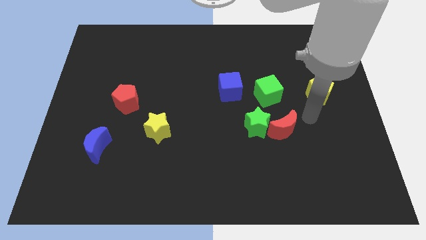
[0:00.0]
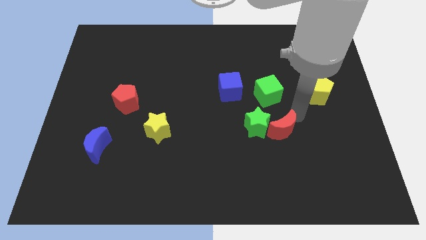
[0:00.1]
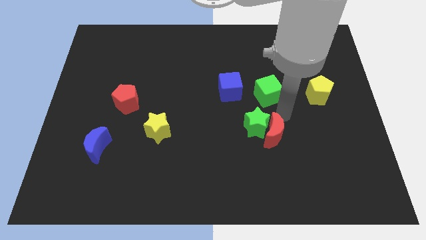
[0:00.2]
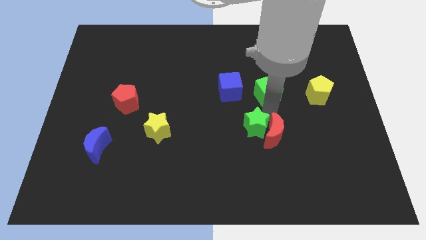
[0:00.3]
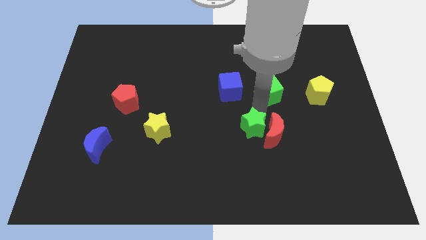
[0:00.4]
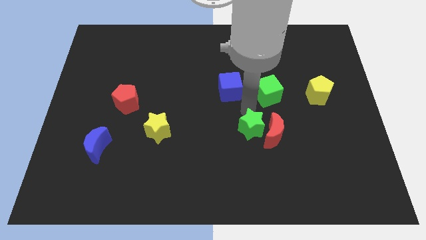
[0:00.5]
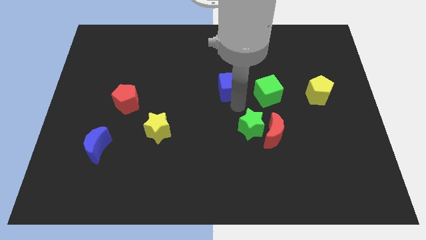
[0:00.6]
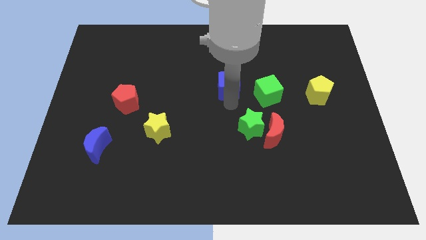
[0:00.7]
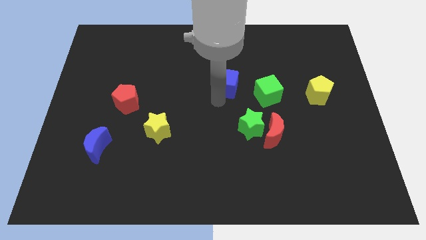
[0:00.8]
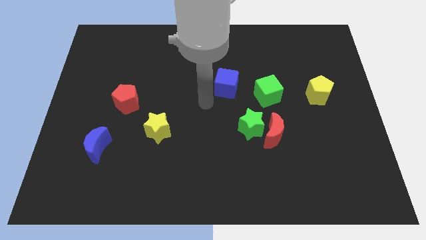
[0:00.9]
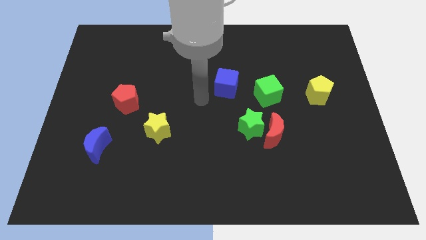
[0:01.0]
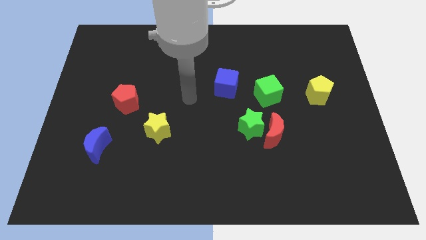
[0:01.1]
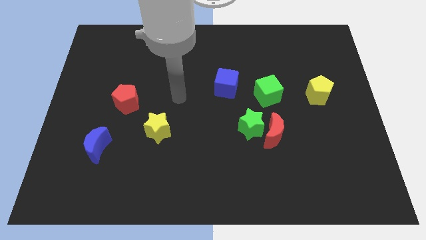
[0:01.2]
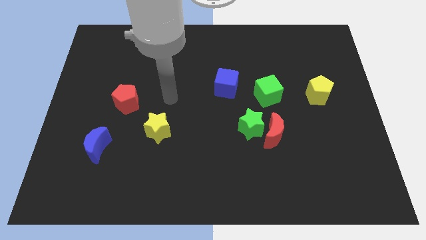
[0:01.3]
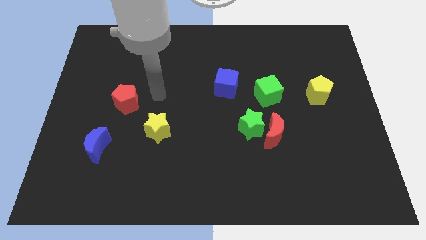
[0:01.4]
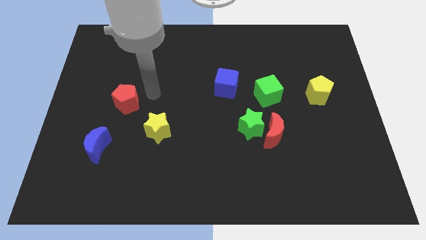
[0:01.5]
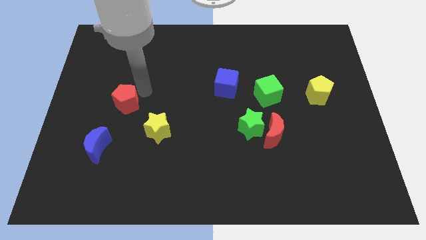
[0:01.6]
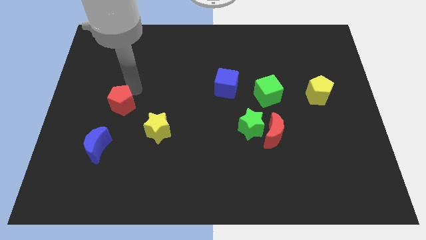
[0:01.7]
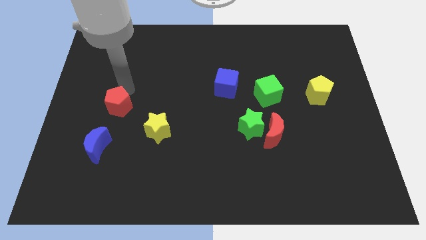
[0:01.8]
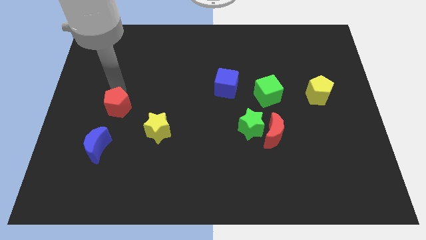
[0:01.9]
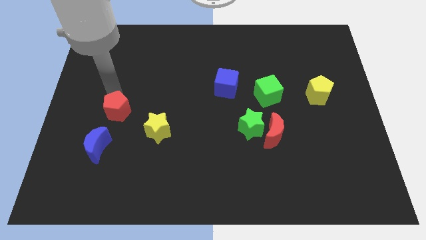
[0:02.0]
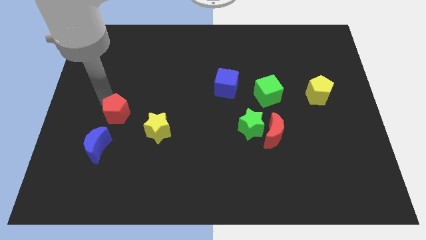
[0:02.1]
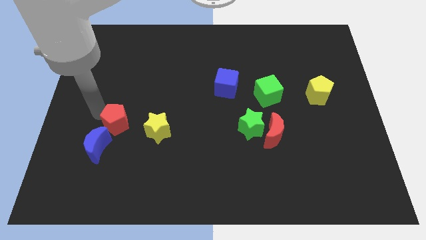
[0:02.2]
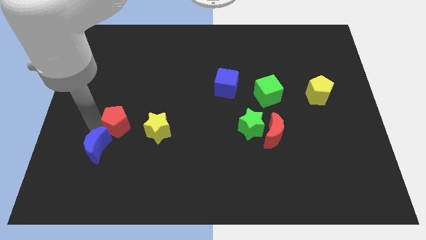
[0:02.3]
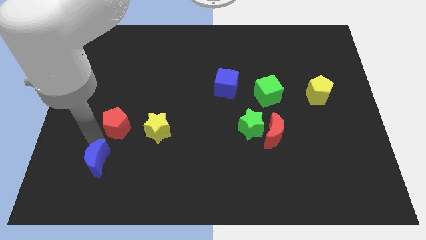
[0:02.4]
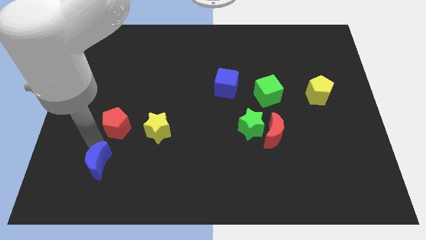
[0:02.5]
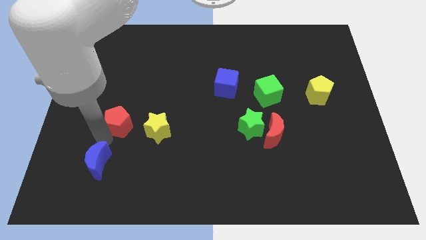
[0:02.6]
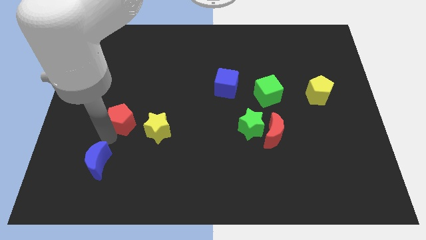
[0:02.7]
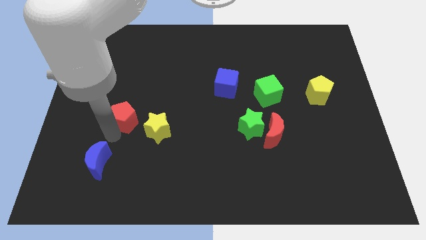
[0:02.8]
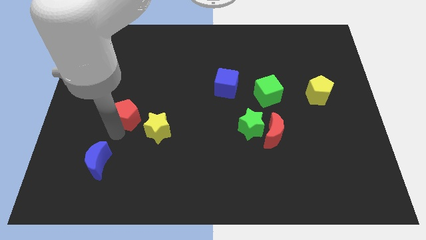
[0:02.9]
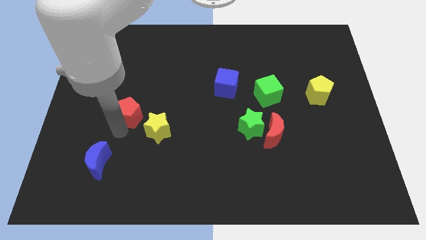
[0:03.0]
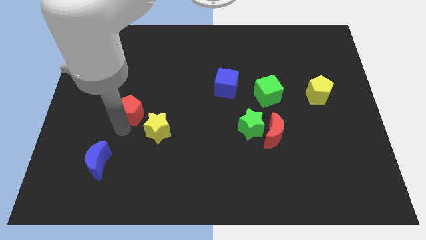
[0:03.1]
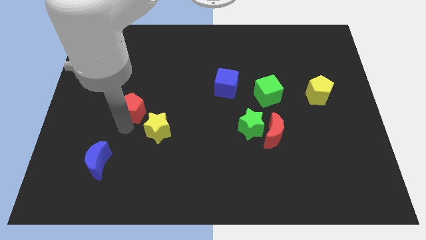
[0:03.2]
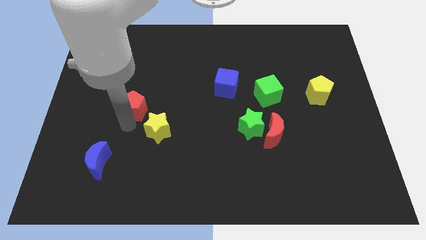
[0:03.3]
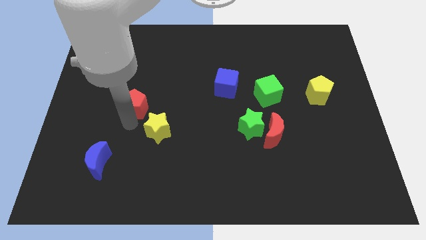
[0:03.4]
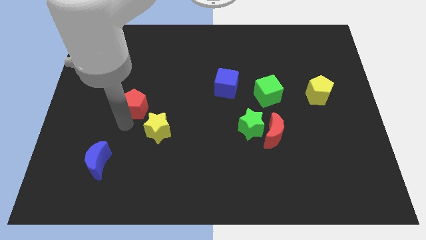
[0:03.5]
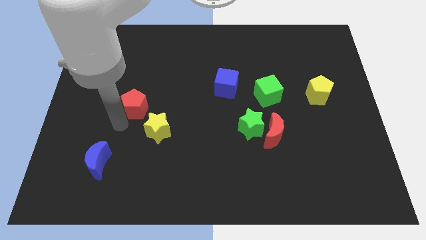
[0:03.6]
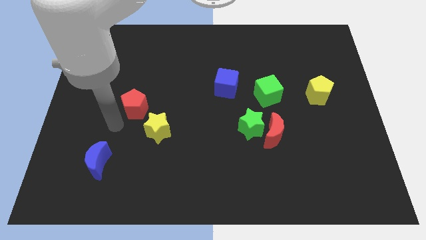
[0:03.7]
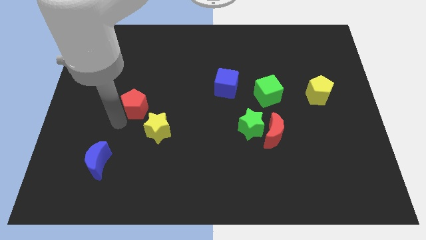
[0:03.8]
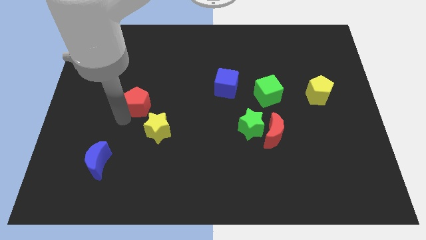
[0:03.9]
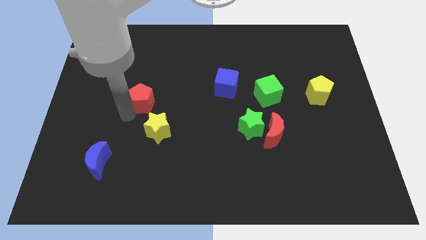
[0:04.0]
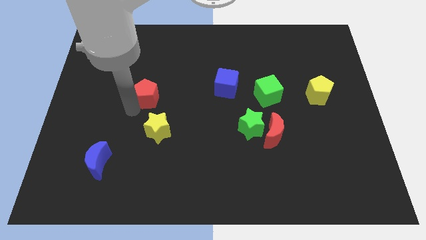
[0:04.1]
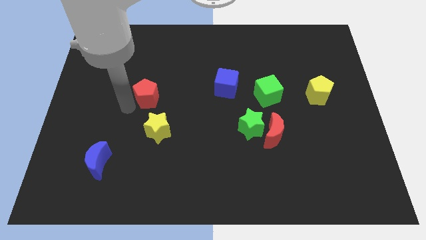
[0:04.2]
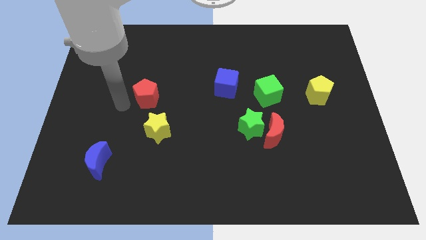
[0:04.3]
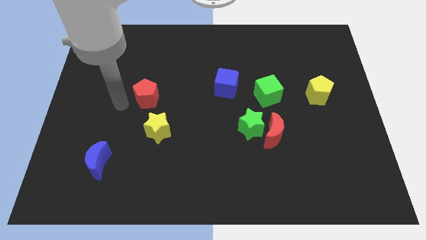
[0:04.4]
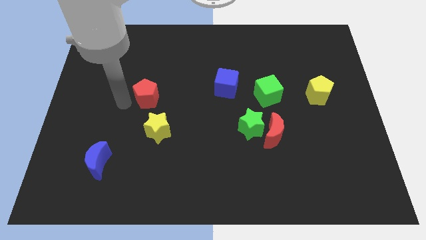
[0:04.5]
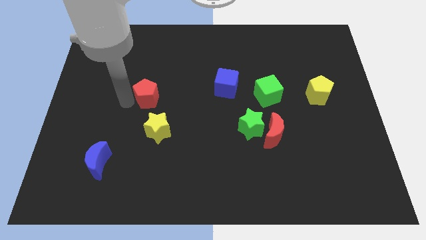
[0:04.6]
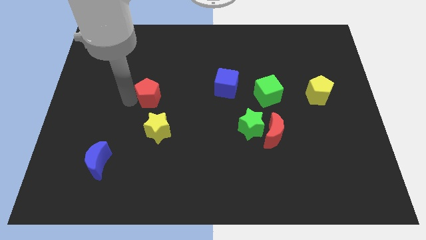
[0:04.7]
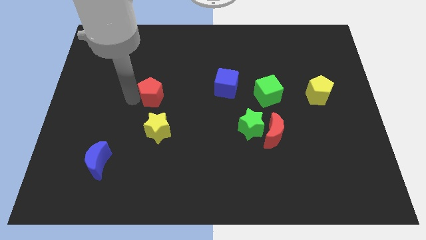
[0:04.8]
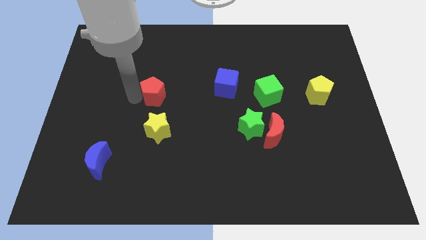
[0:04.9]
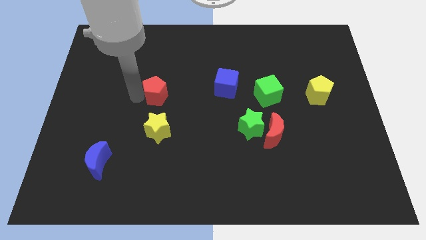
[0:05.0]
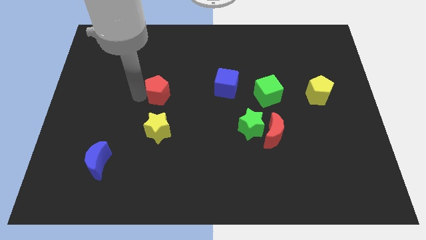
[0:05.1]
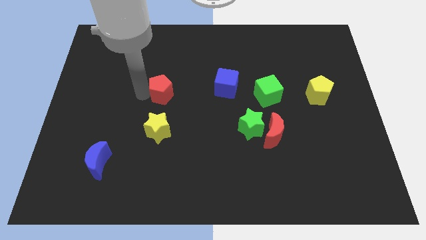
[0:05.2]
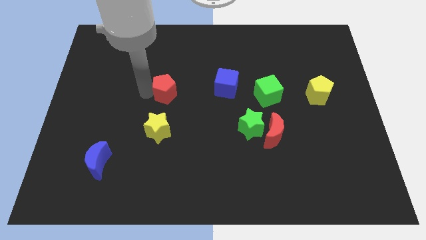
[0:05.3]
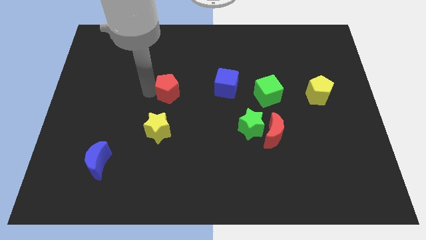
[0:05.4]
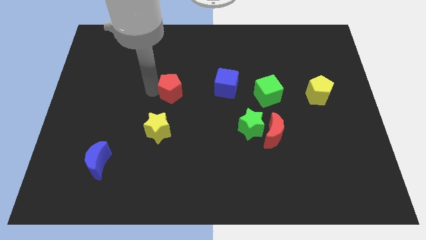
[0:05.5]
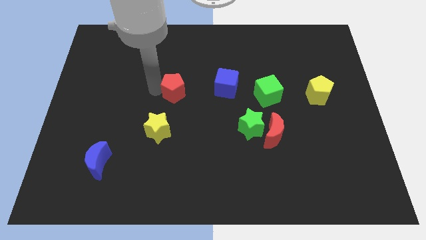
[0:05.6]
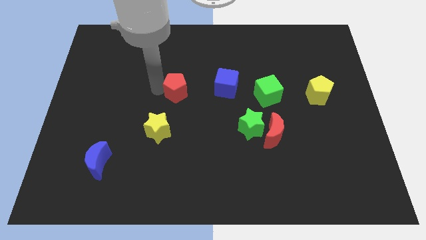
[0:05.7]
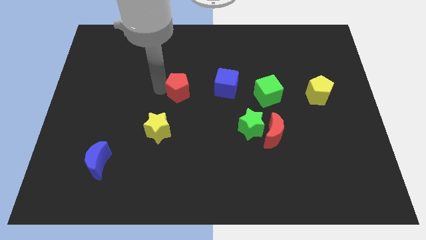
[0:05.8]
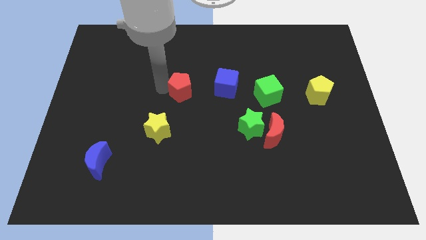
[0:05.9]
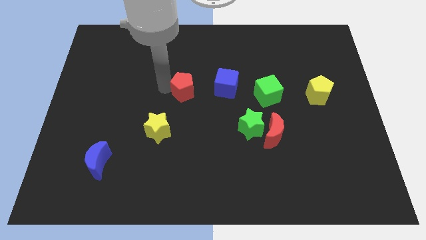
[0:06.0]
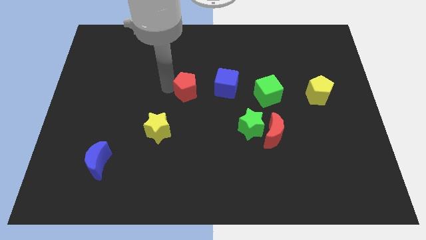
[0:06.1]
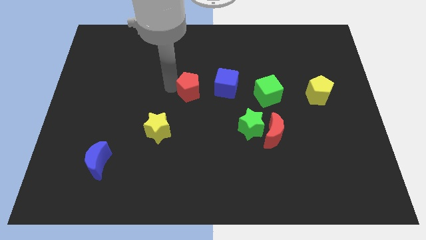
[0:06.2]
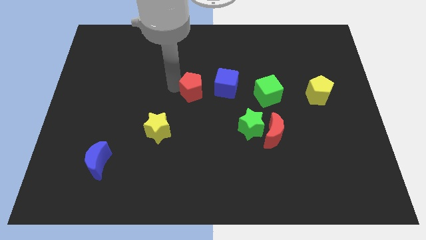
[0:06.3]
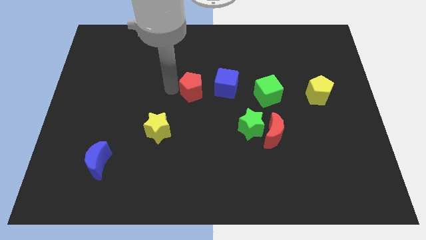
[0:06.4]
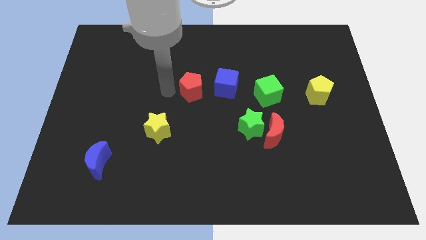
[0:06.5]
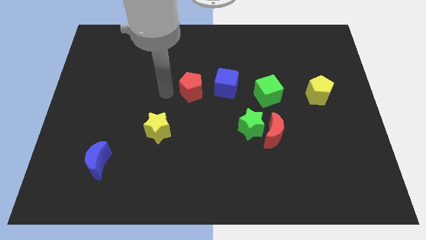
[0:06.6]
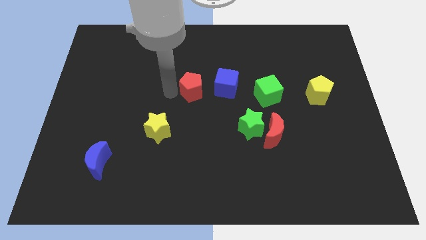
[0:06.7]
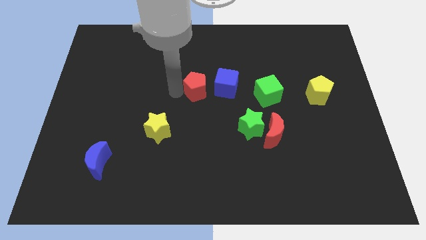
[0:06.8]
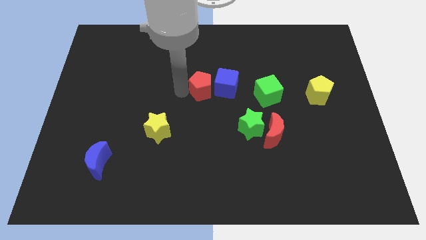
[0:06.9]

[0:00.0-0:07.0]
put the red pentagon next to the blue cube
